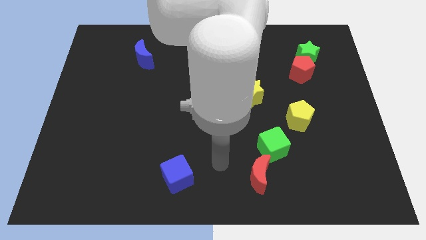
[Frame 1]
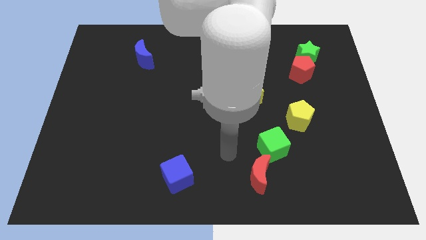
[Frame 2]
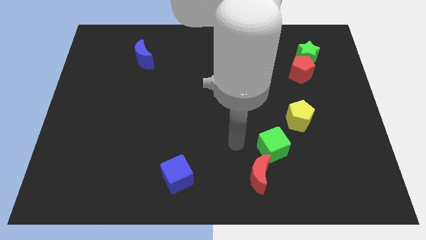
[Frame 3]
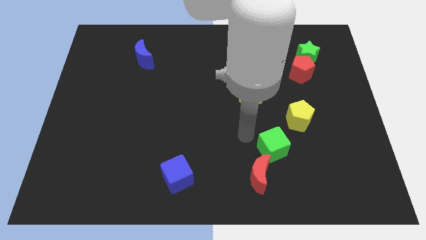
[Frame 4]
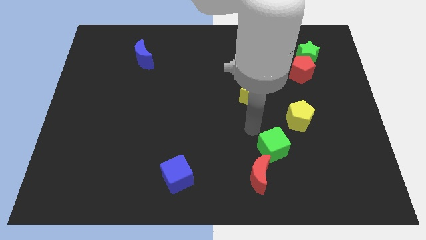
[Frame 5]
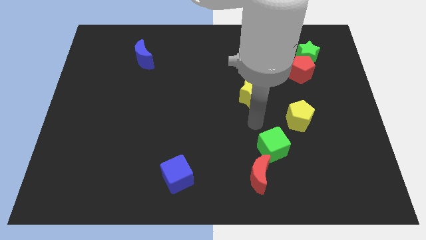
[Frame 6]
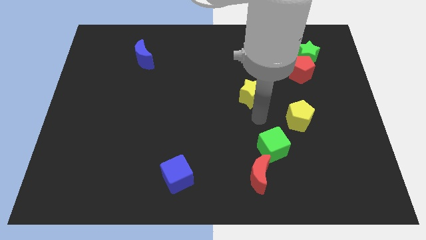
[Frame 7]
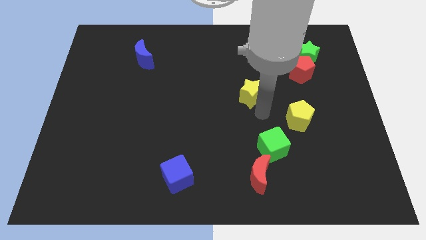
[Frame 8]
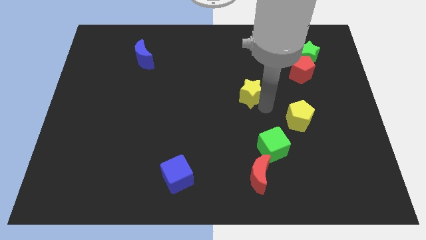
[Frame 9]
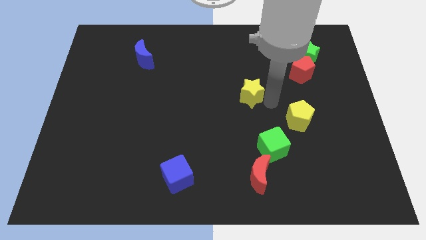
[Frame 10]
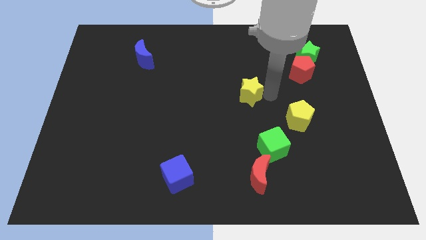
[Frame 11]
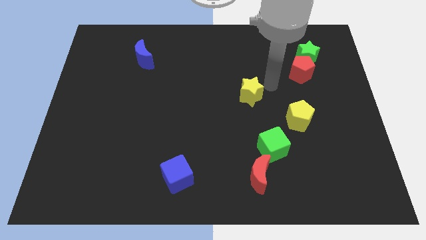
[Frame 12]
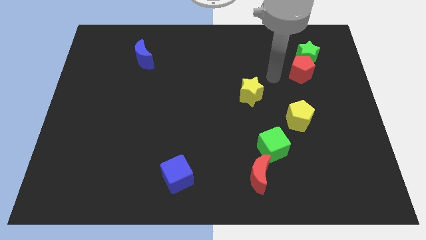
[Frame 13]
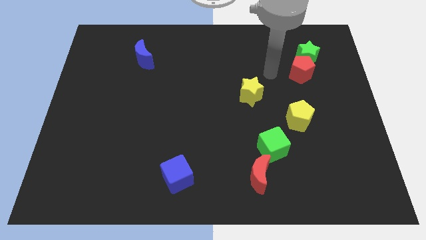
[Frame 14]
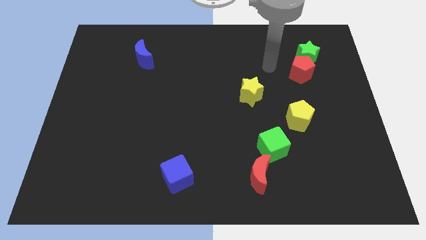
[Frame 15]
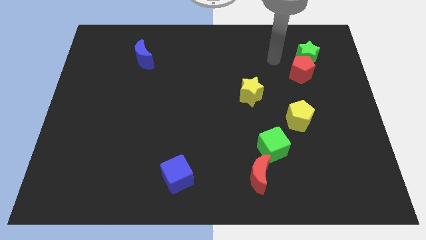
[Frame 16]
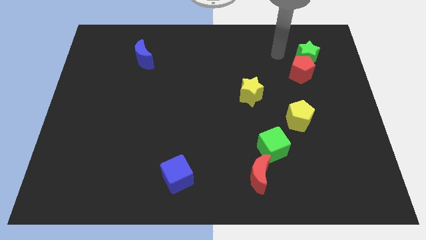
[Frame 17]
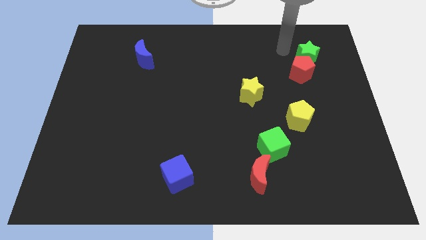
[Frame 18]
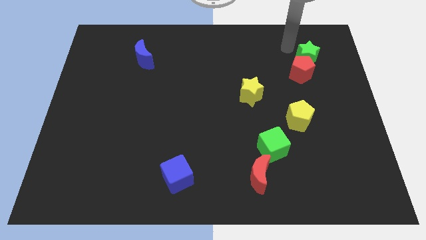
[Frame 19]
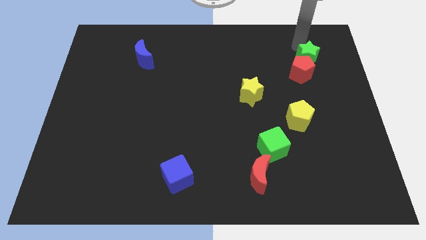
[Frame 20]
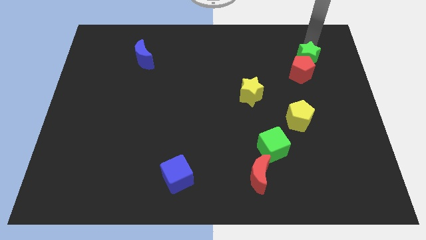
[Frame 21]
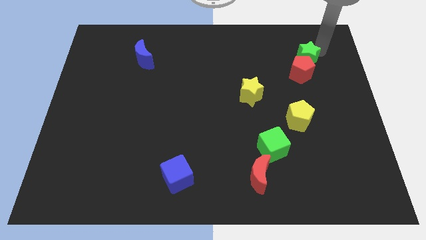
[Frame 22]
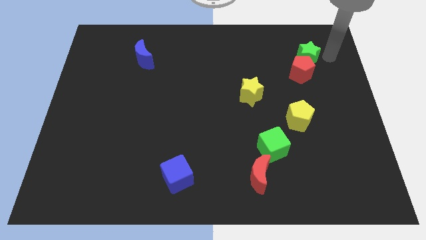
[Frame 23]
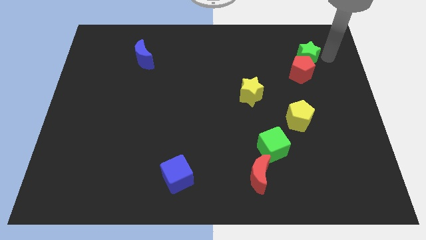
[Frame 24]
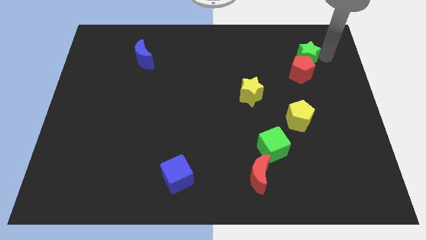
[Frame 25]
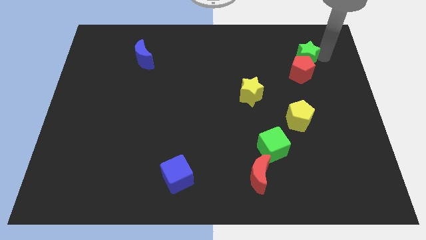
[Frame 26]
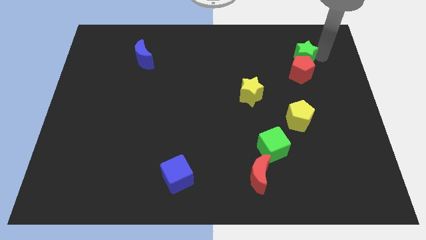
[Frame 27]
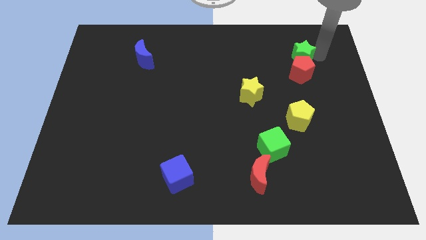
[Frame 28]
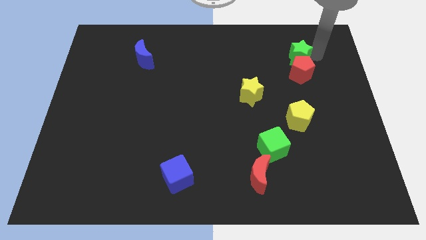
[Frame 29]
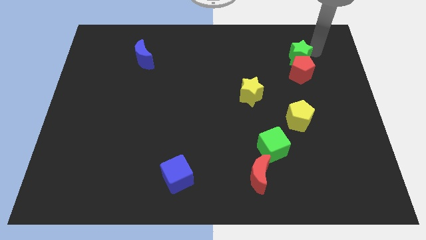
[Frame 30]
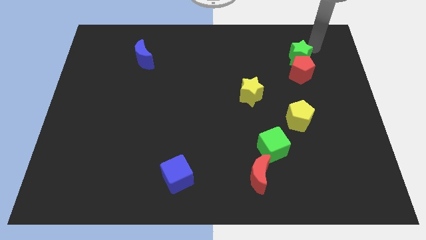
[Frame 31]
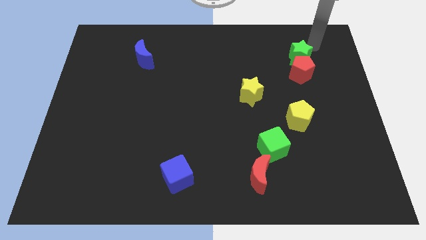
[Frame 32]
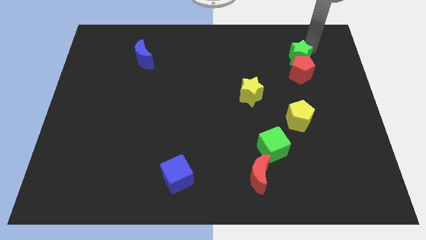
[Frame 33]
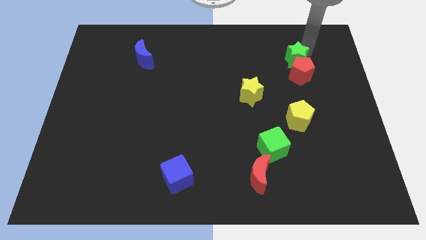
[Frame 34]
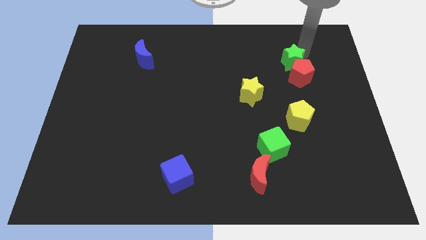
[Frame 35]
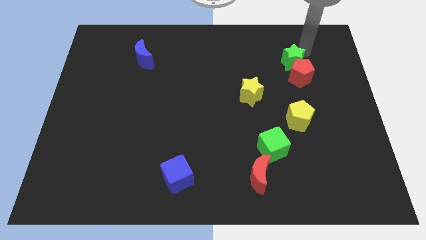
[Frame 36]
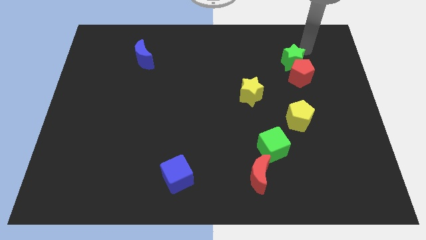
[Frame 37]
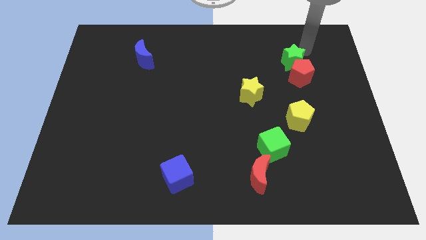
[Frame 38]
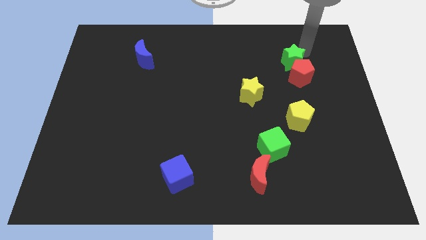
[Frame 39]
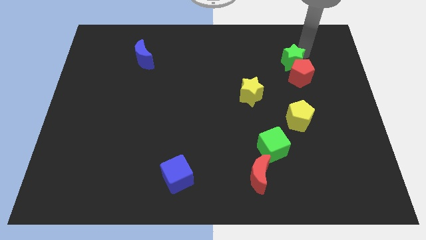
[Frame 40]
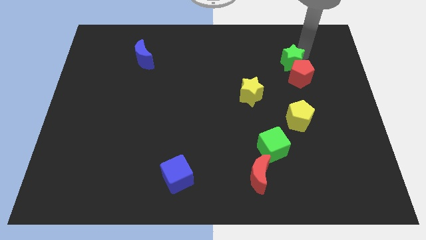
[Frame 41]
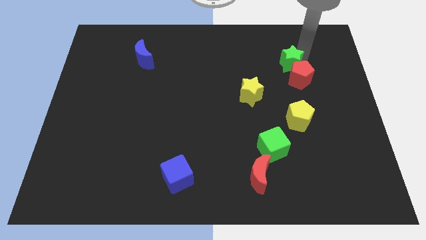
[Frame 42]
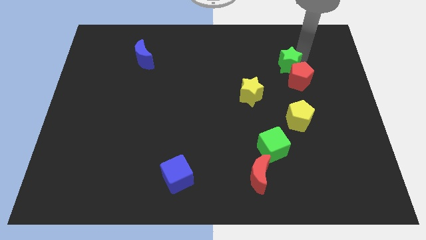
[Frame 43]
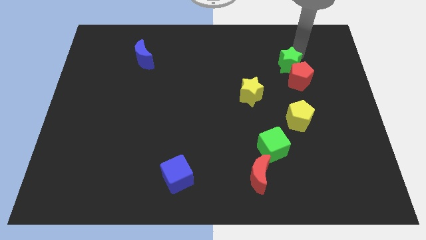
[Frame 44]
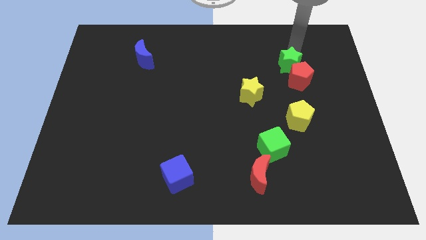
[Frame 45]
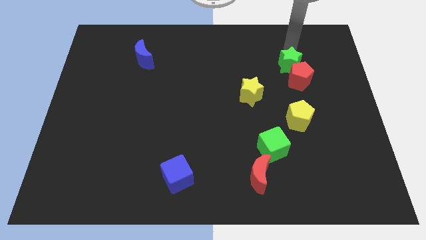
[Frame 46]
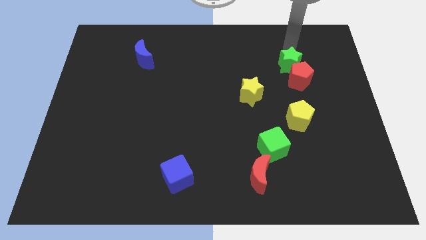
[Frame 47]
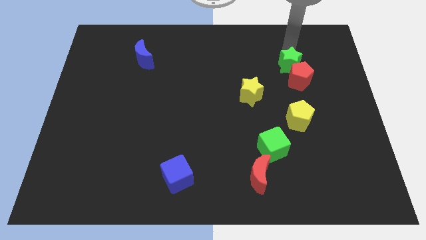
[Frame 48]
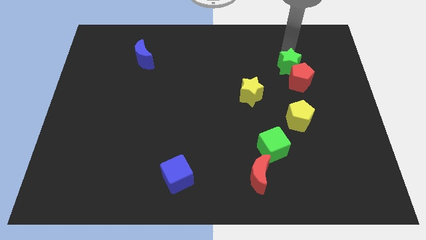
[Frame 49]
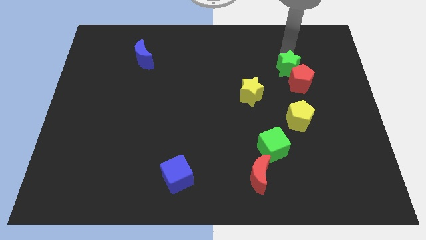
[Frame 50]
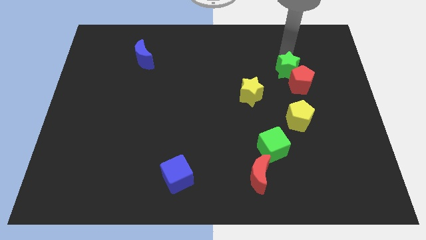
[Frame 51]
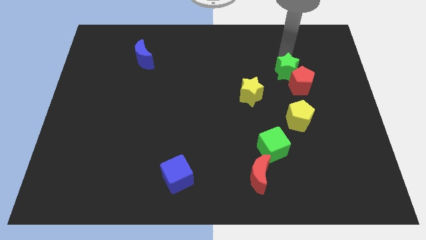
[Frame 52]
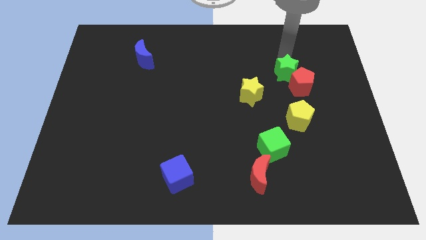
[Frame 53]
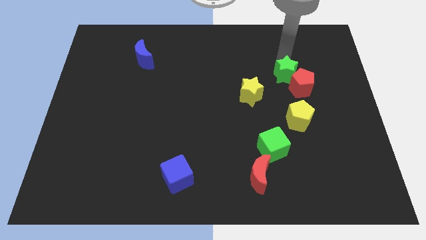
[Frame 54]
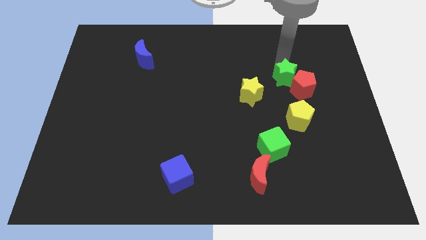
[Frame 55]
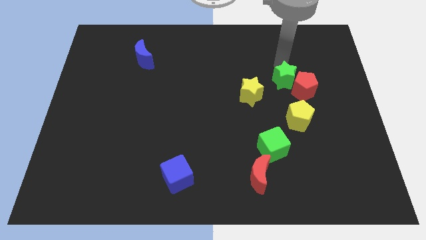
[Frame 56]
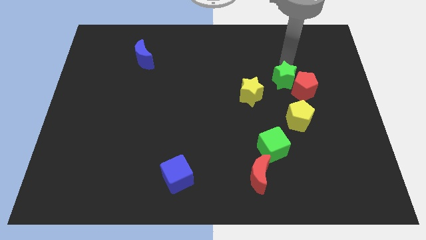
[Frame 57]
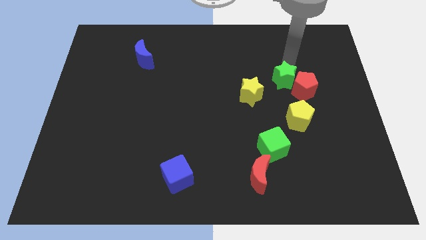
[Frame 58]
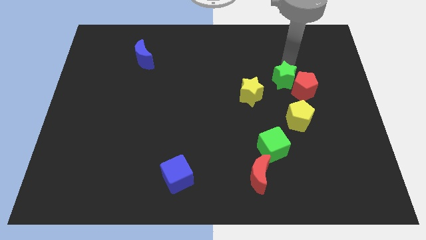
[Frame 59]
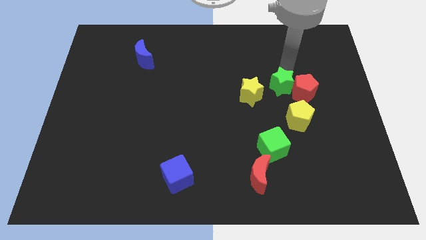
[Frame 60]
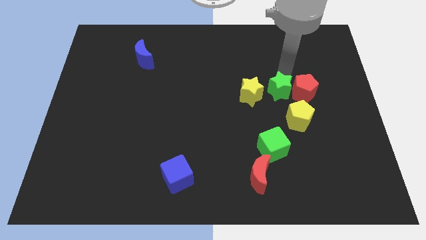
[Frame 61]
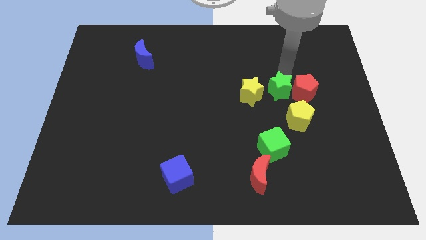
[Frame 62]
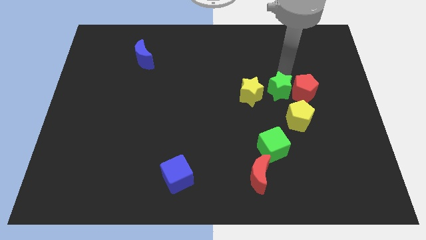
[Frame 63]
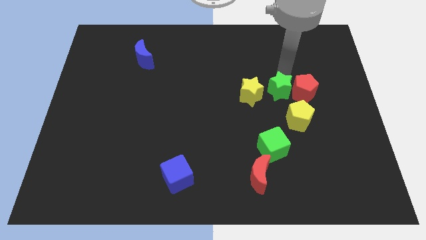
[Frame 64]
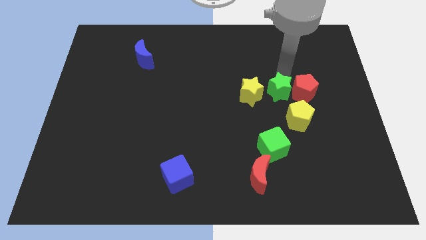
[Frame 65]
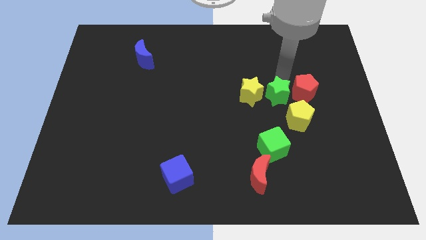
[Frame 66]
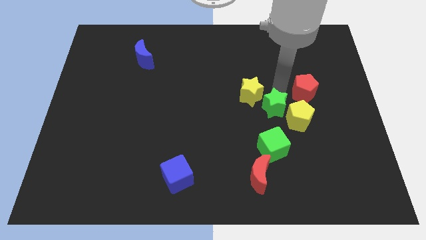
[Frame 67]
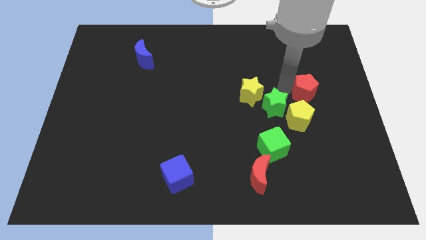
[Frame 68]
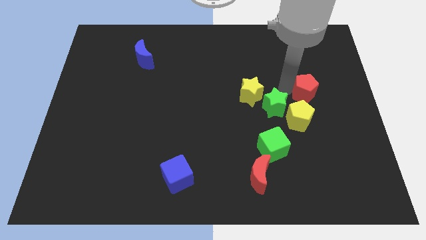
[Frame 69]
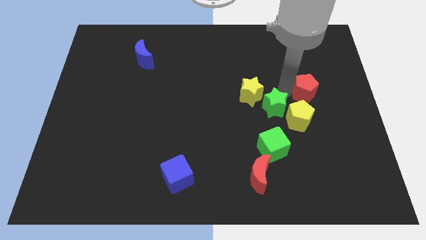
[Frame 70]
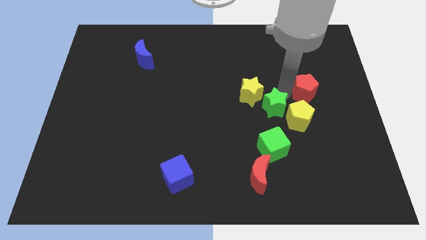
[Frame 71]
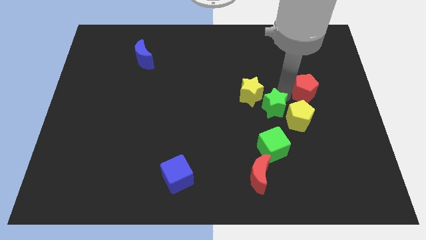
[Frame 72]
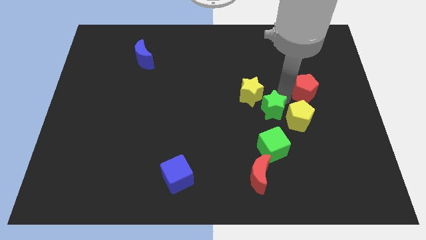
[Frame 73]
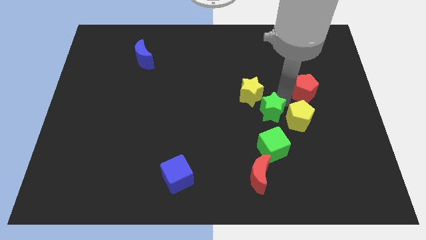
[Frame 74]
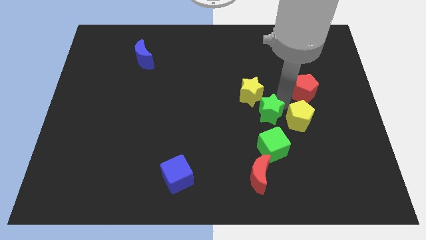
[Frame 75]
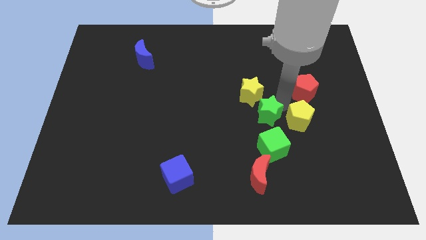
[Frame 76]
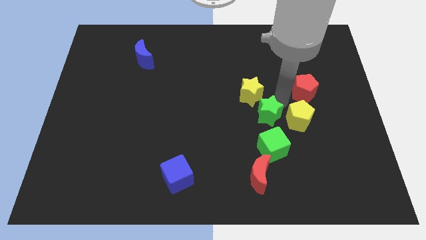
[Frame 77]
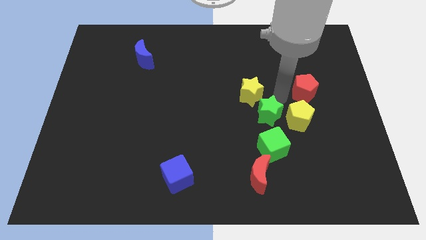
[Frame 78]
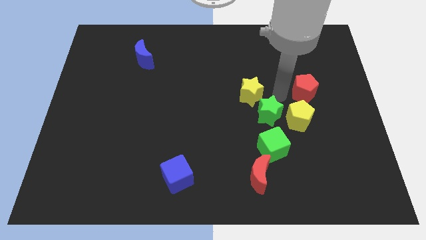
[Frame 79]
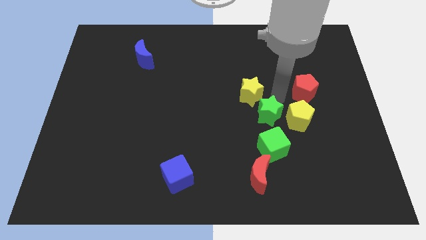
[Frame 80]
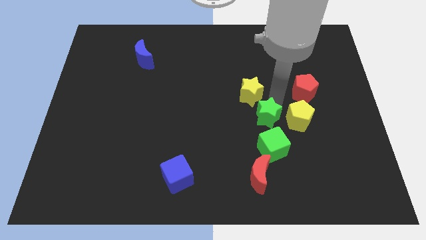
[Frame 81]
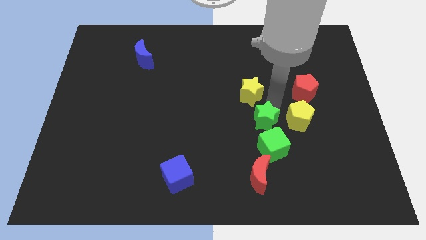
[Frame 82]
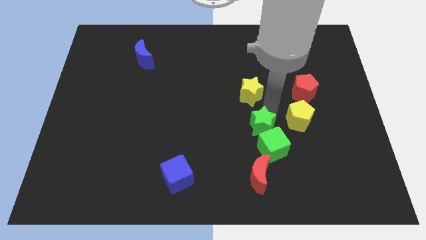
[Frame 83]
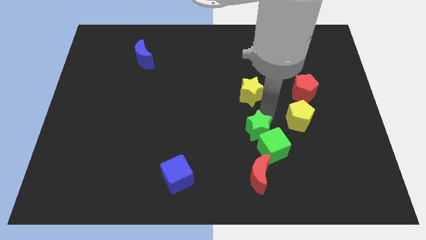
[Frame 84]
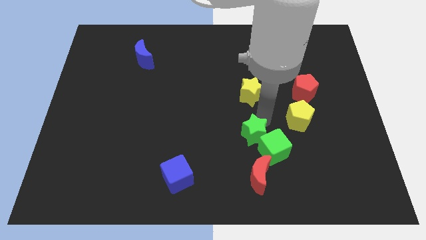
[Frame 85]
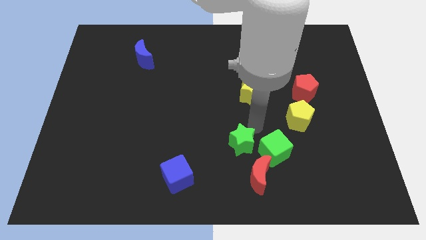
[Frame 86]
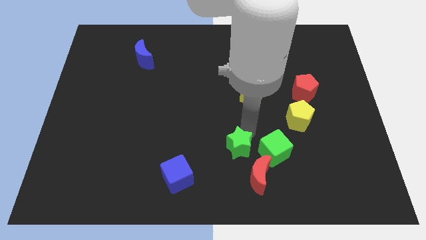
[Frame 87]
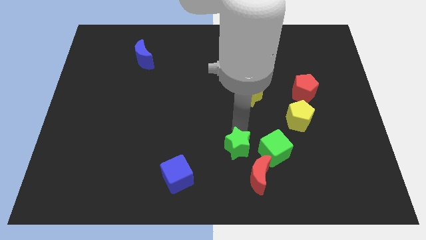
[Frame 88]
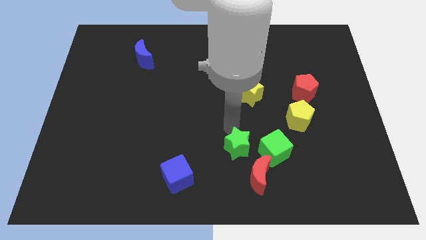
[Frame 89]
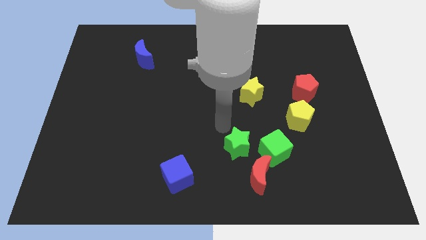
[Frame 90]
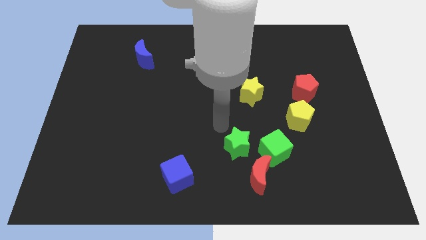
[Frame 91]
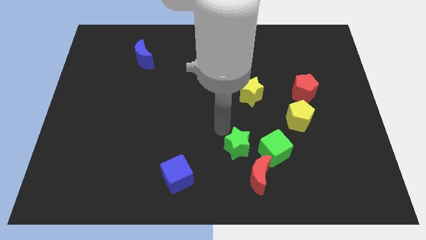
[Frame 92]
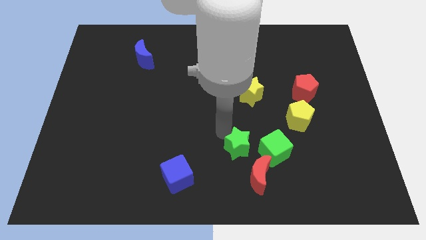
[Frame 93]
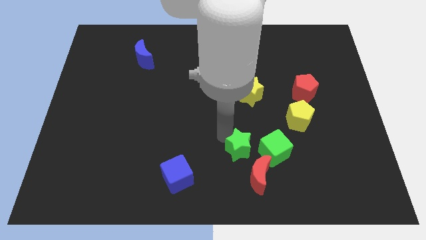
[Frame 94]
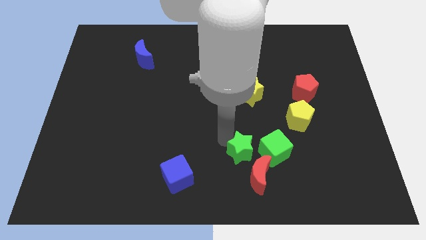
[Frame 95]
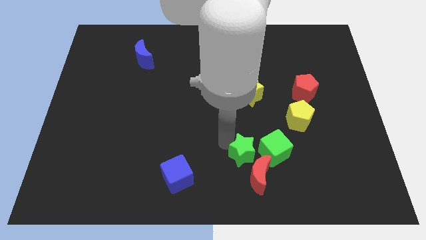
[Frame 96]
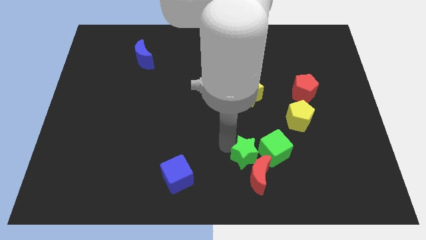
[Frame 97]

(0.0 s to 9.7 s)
push the green star to the red moon
